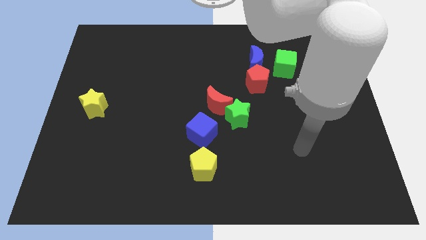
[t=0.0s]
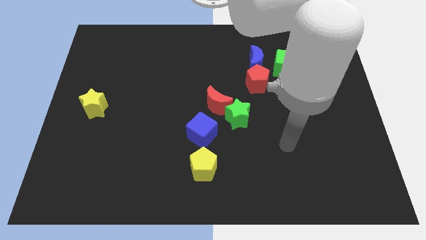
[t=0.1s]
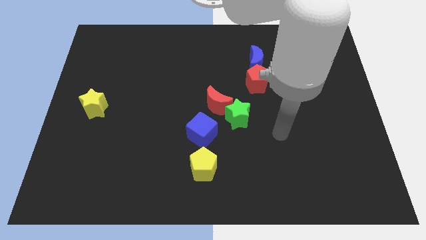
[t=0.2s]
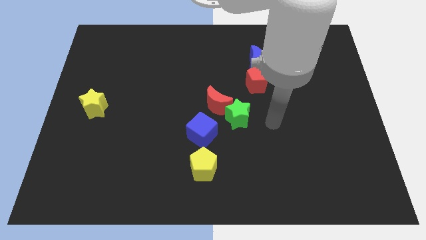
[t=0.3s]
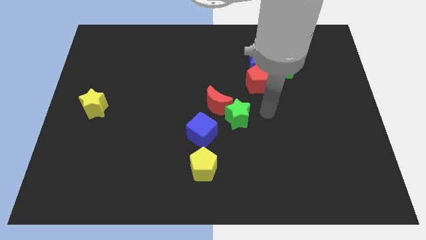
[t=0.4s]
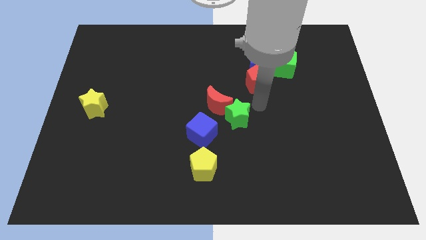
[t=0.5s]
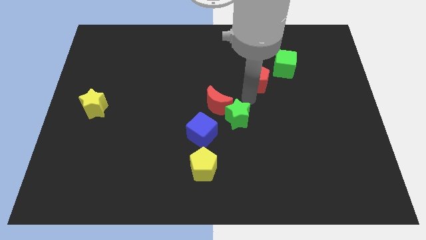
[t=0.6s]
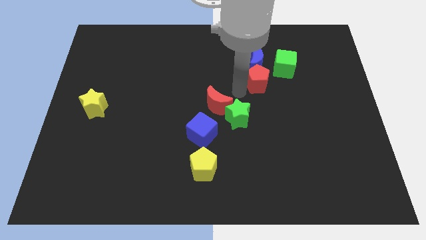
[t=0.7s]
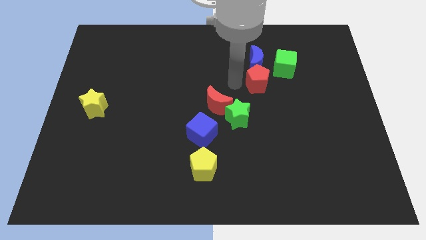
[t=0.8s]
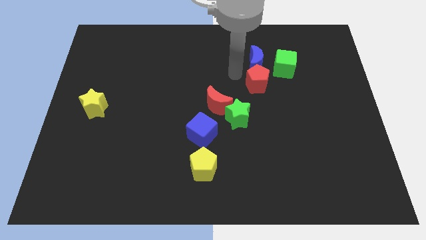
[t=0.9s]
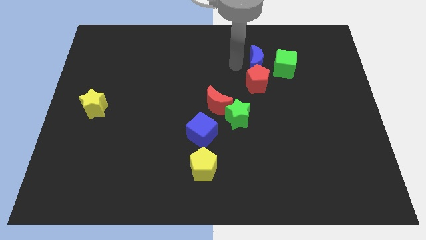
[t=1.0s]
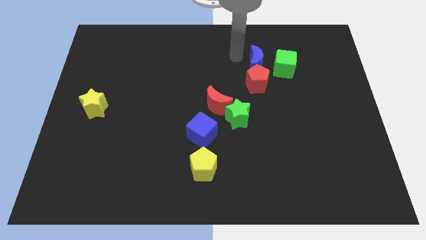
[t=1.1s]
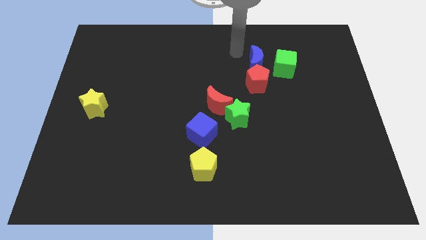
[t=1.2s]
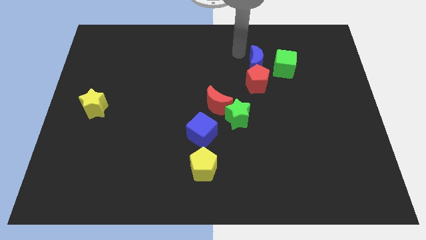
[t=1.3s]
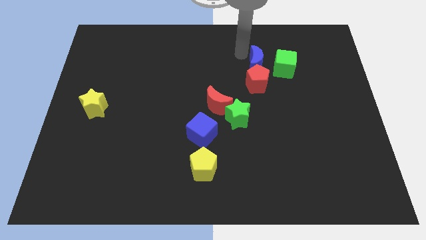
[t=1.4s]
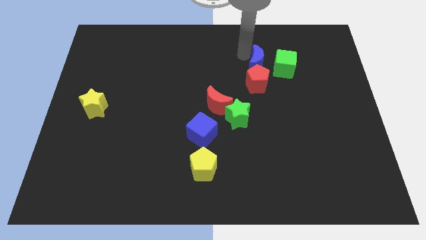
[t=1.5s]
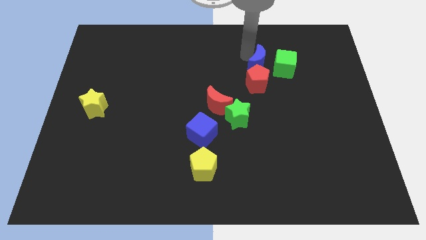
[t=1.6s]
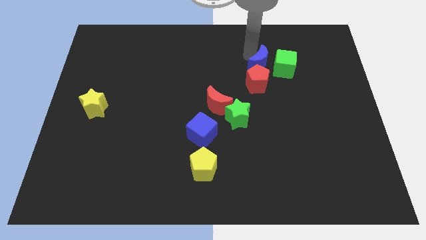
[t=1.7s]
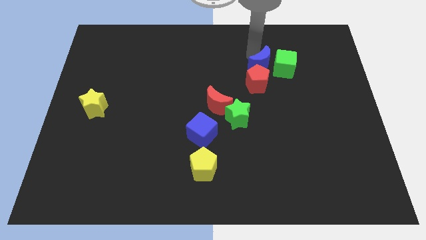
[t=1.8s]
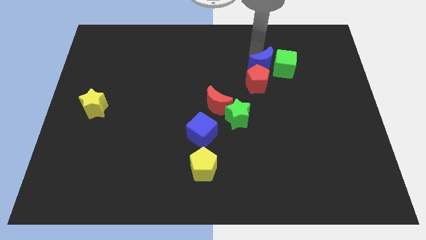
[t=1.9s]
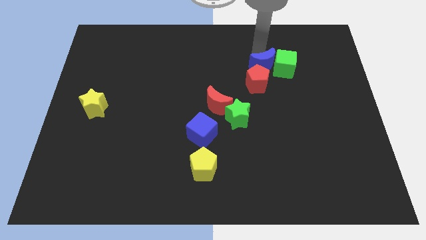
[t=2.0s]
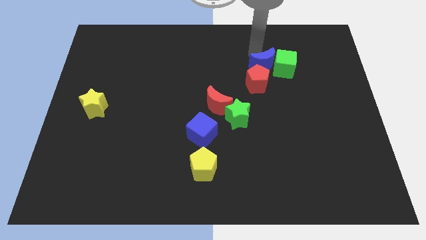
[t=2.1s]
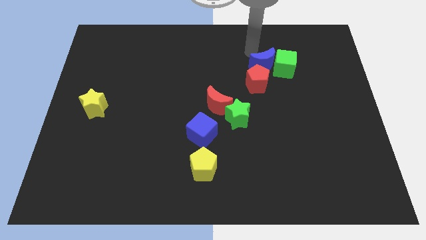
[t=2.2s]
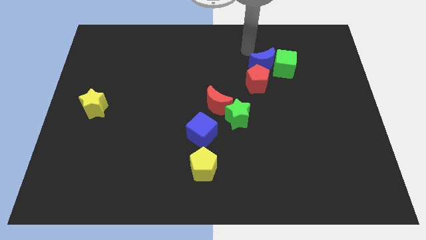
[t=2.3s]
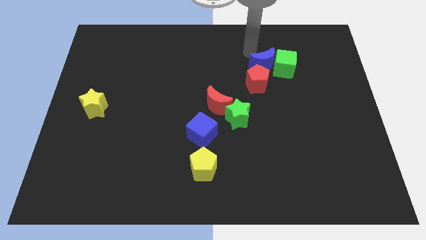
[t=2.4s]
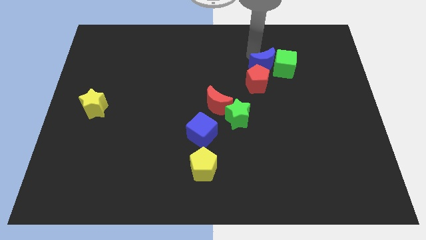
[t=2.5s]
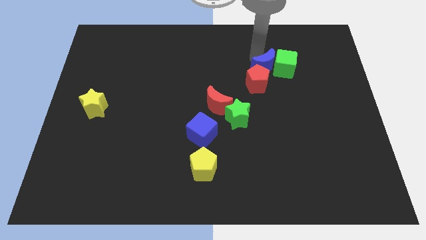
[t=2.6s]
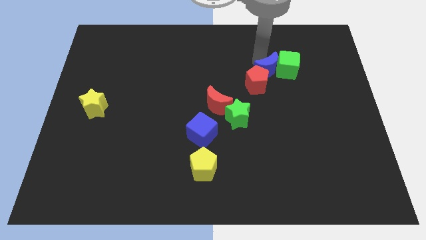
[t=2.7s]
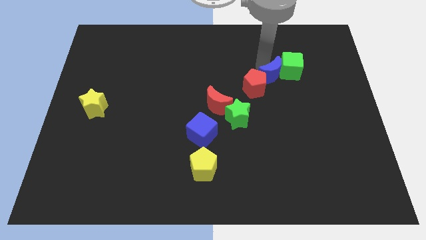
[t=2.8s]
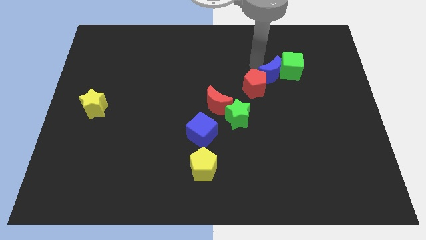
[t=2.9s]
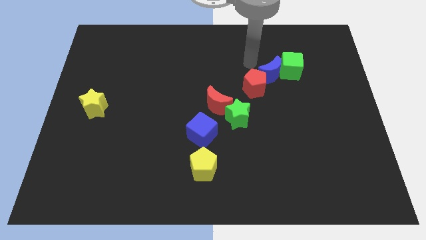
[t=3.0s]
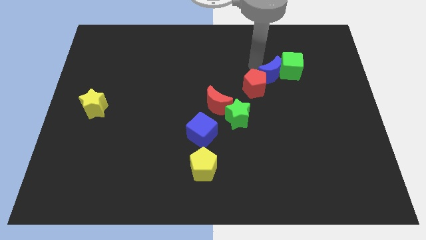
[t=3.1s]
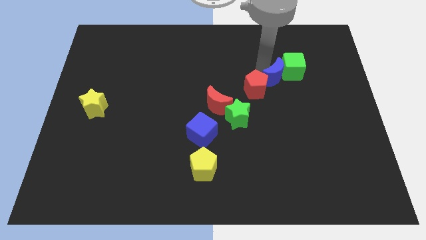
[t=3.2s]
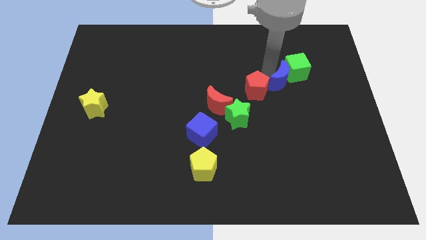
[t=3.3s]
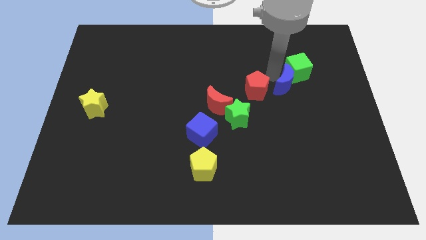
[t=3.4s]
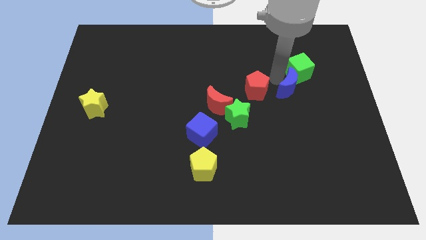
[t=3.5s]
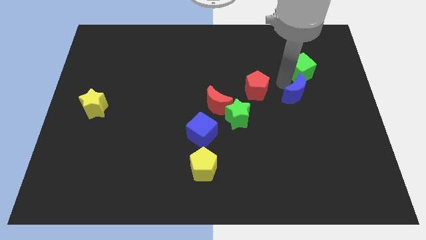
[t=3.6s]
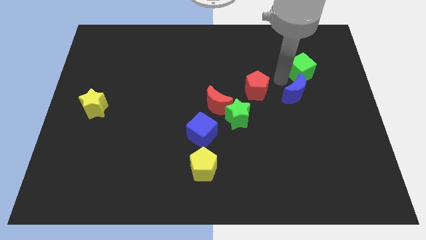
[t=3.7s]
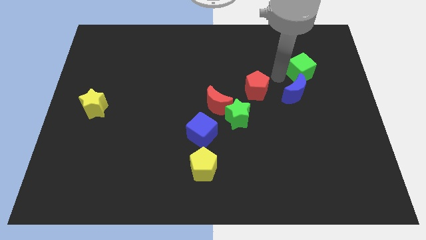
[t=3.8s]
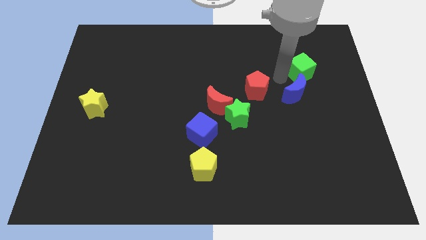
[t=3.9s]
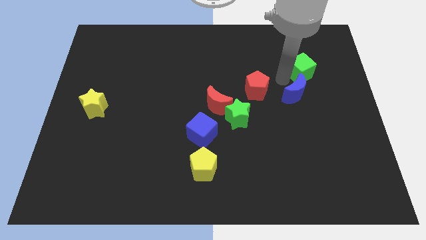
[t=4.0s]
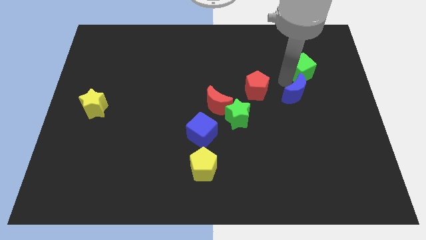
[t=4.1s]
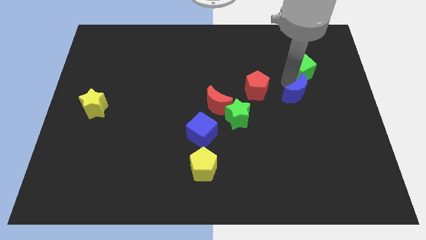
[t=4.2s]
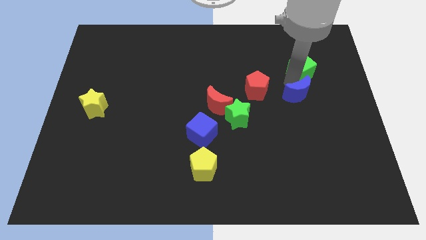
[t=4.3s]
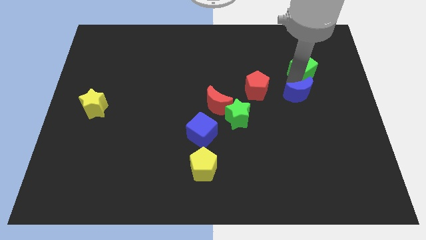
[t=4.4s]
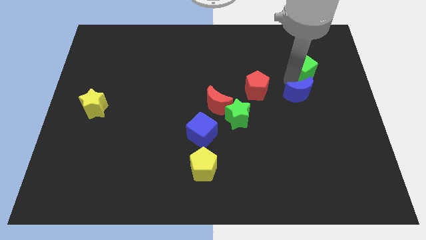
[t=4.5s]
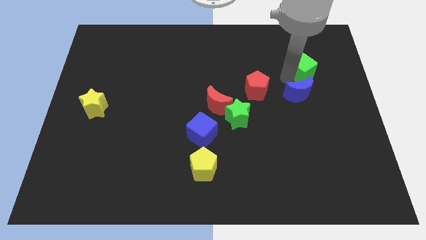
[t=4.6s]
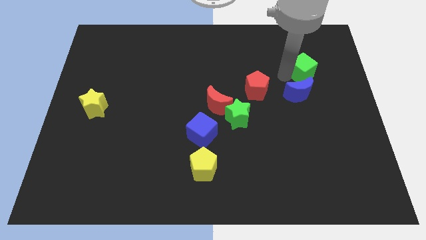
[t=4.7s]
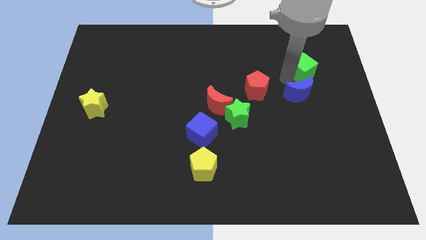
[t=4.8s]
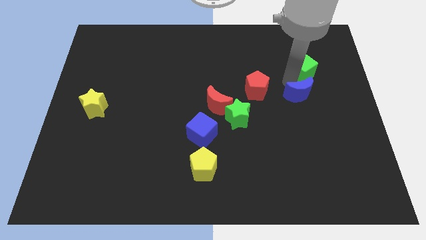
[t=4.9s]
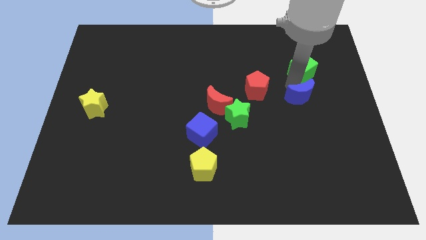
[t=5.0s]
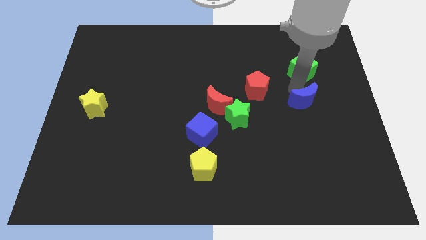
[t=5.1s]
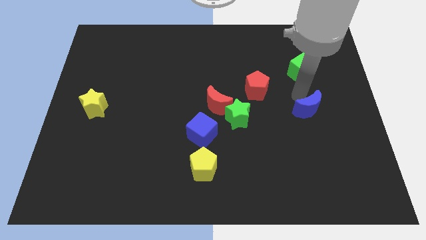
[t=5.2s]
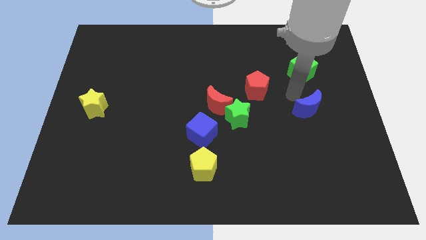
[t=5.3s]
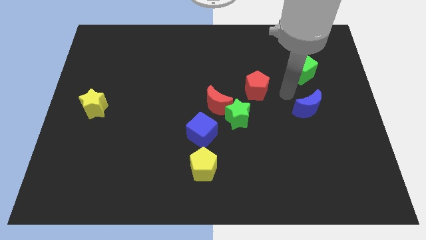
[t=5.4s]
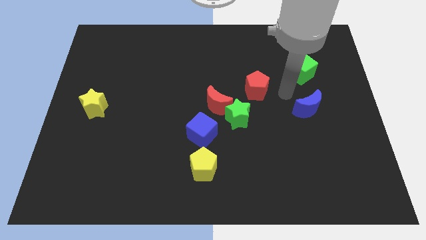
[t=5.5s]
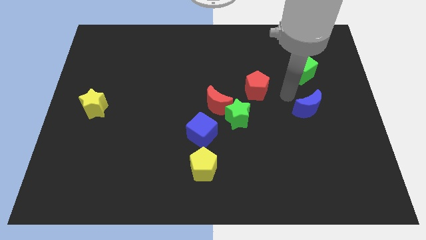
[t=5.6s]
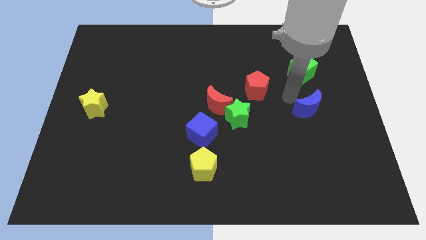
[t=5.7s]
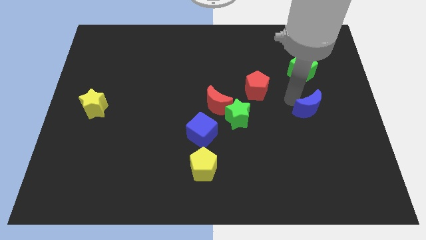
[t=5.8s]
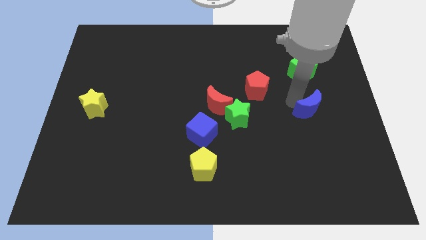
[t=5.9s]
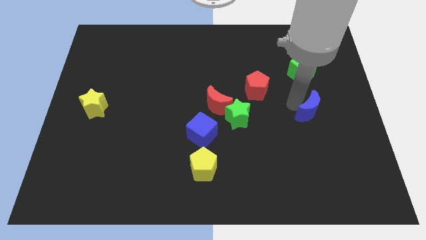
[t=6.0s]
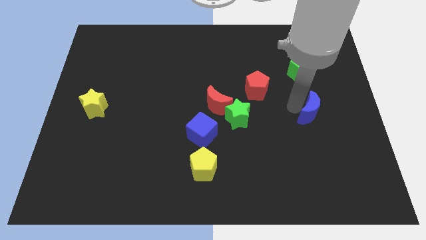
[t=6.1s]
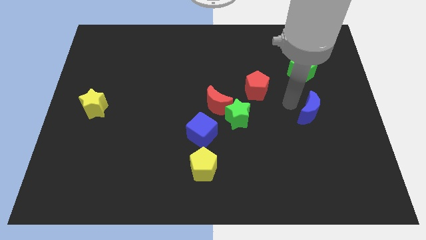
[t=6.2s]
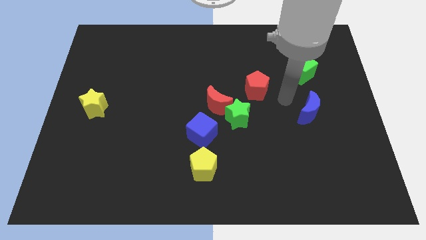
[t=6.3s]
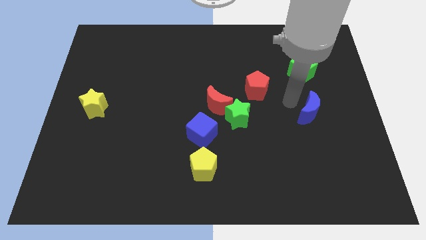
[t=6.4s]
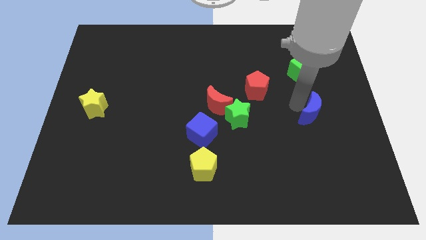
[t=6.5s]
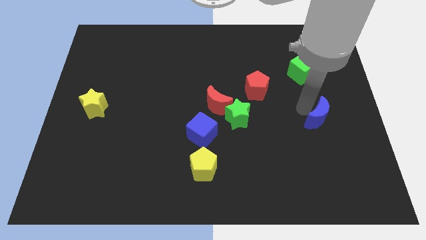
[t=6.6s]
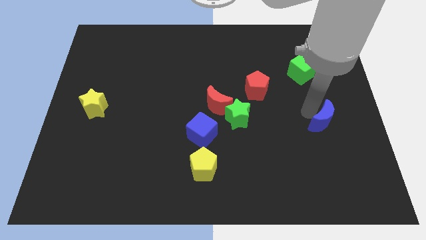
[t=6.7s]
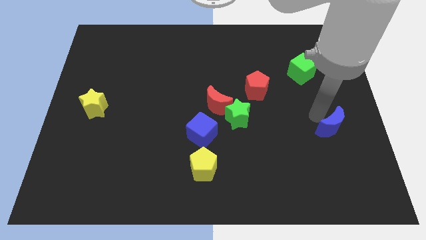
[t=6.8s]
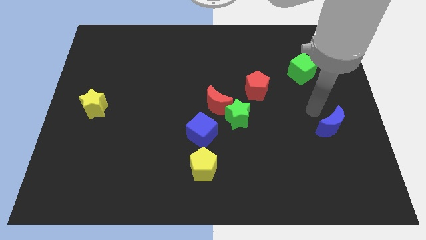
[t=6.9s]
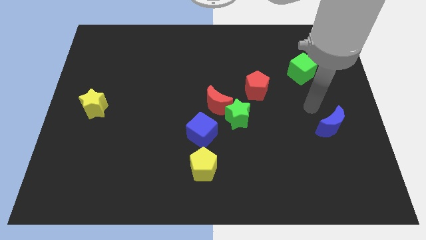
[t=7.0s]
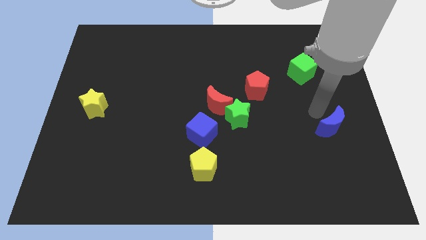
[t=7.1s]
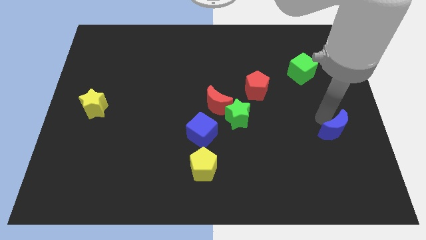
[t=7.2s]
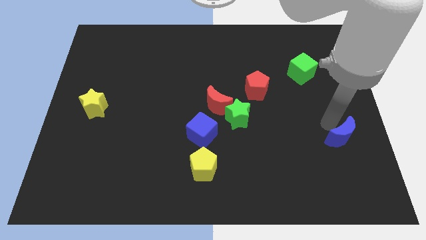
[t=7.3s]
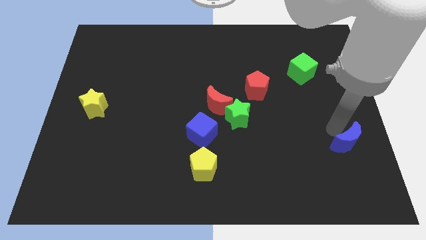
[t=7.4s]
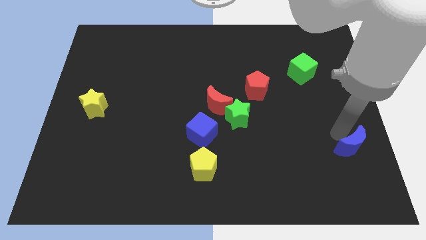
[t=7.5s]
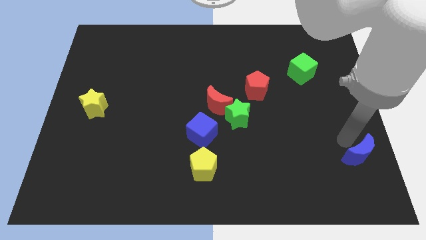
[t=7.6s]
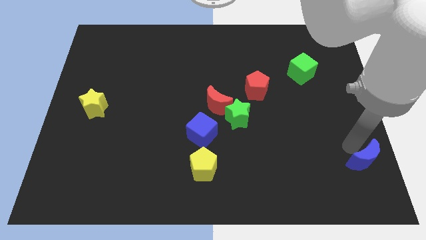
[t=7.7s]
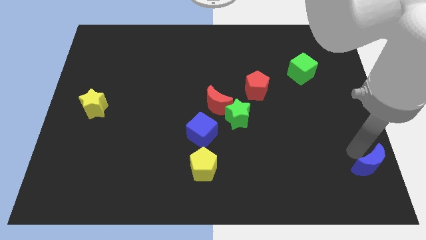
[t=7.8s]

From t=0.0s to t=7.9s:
slide the blue moon to the bottom right
